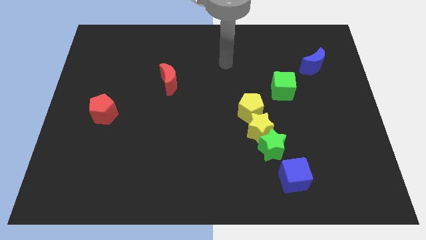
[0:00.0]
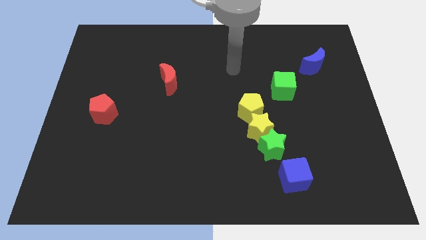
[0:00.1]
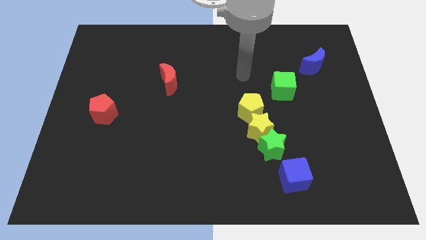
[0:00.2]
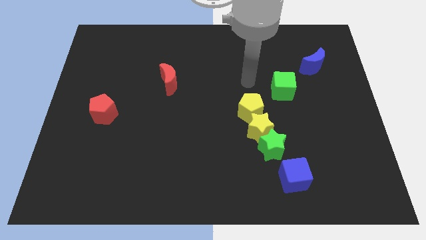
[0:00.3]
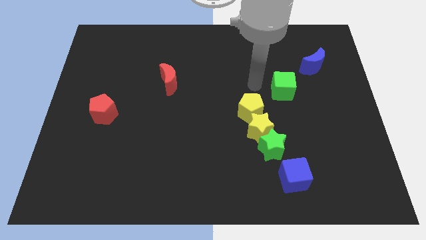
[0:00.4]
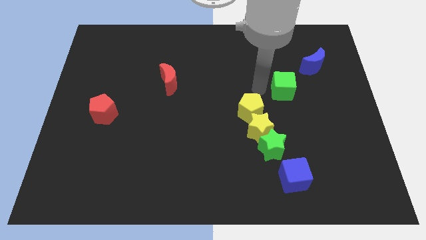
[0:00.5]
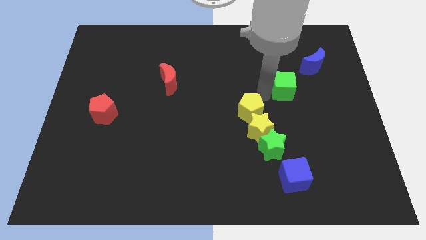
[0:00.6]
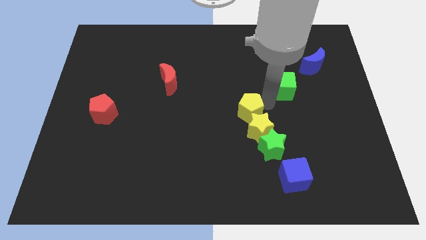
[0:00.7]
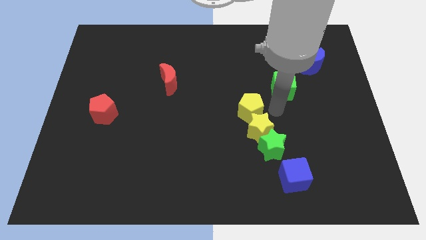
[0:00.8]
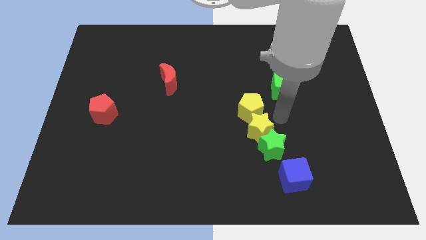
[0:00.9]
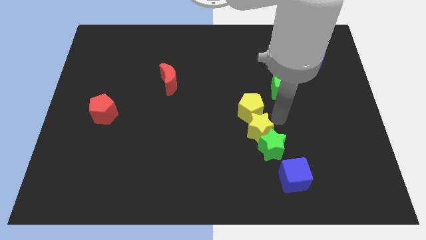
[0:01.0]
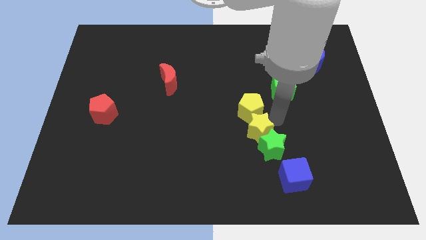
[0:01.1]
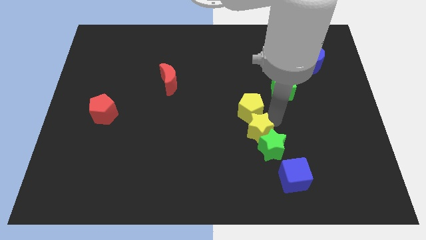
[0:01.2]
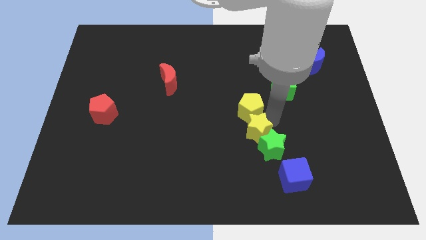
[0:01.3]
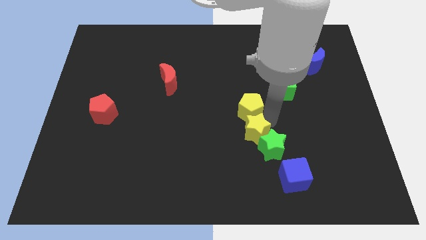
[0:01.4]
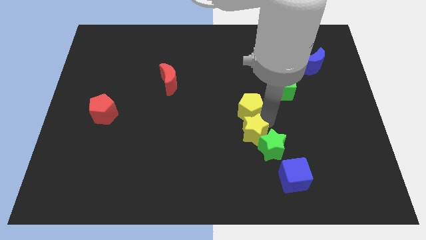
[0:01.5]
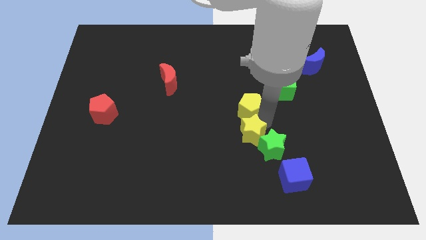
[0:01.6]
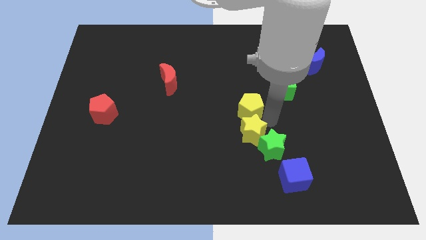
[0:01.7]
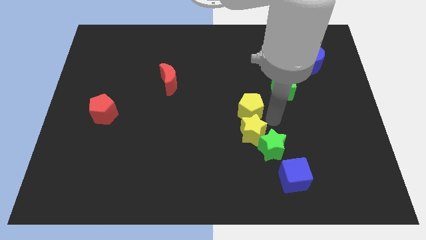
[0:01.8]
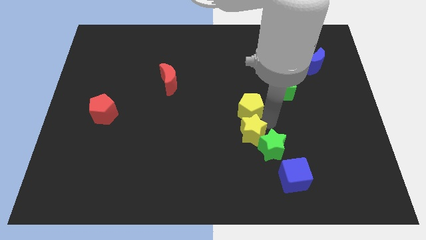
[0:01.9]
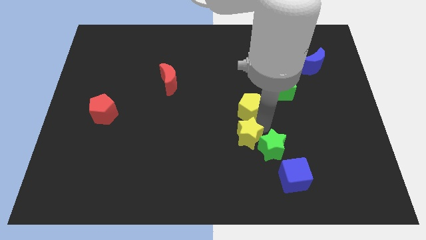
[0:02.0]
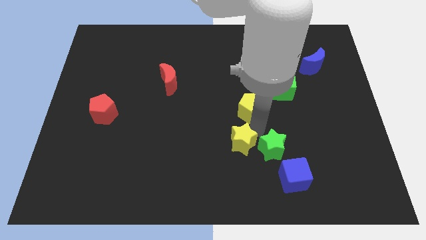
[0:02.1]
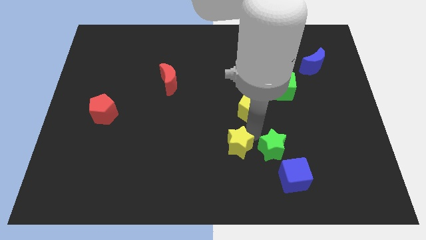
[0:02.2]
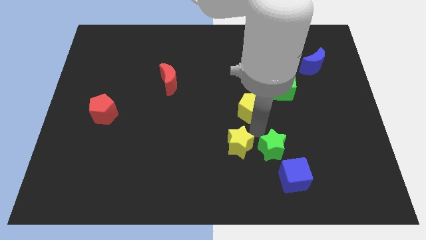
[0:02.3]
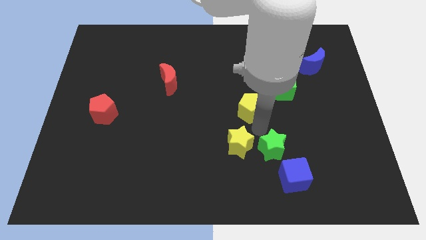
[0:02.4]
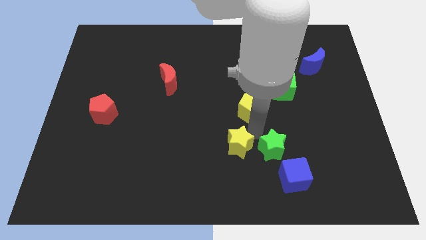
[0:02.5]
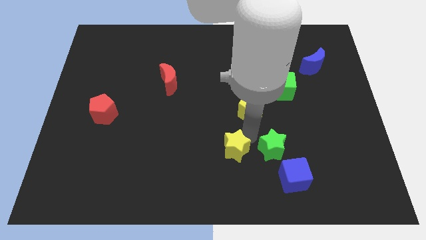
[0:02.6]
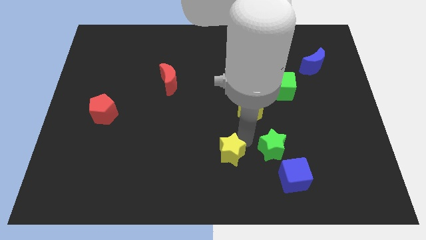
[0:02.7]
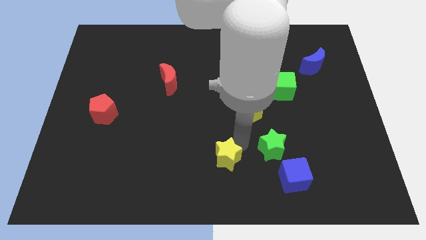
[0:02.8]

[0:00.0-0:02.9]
pull the yellow star apart from the green star and yellow pentagon

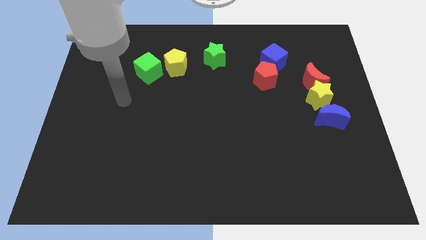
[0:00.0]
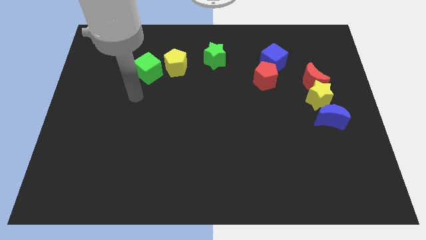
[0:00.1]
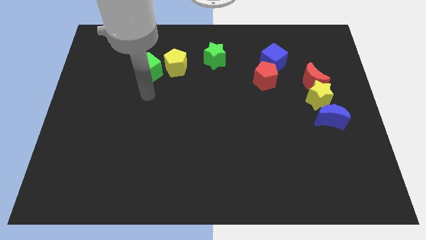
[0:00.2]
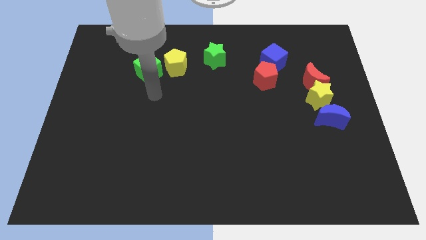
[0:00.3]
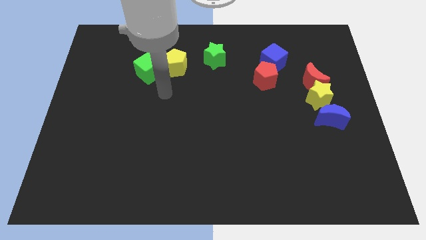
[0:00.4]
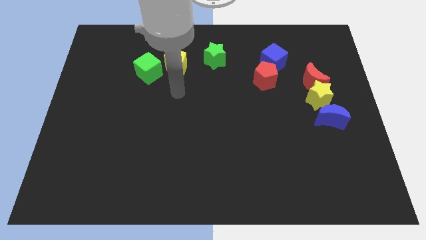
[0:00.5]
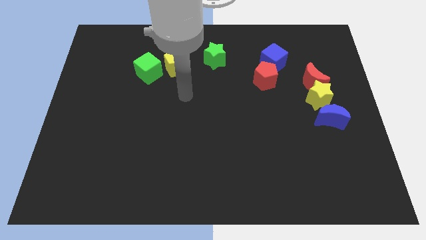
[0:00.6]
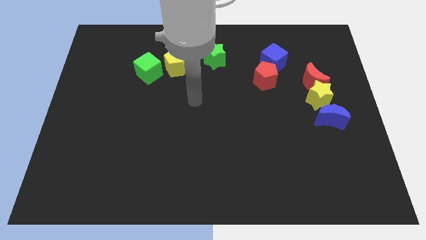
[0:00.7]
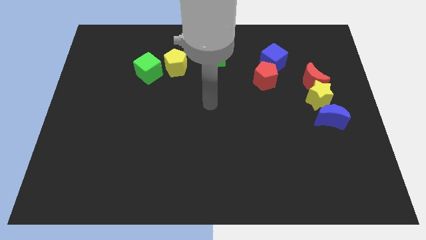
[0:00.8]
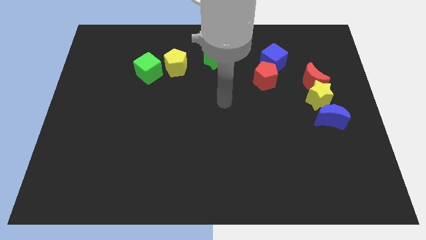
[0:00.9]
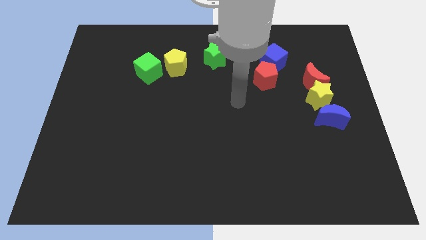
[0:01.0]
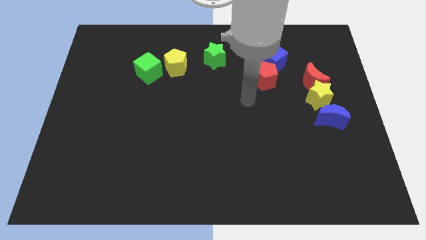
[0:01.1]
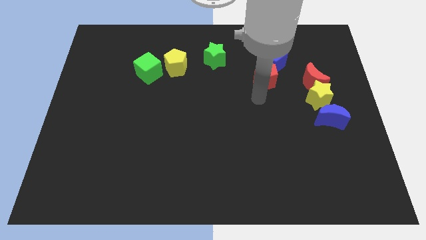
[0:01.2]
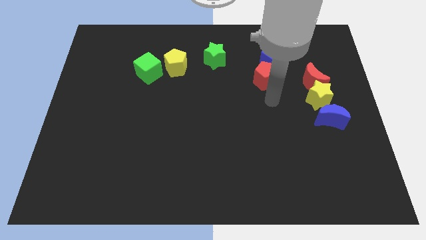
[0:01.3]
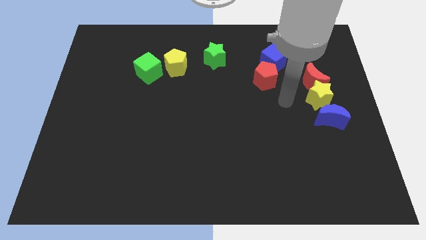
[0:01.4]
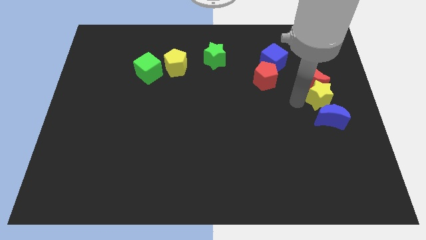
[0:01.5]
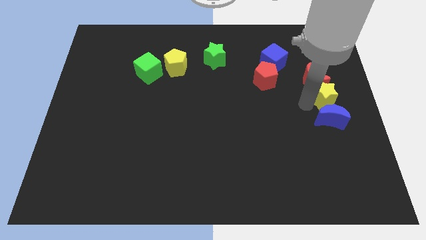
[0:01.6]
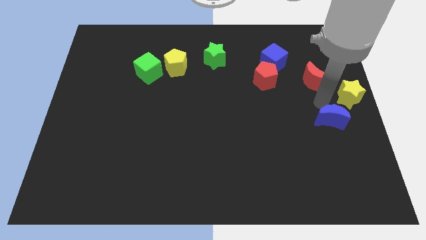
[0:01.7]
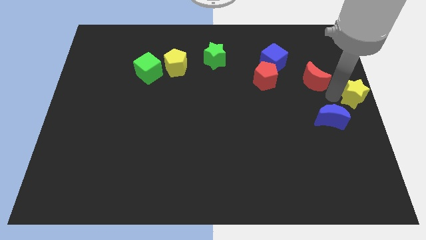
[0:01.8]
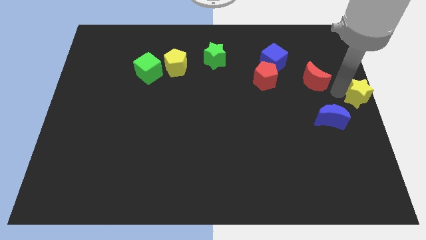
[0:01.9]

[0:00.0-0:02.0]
pull the red moon apart from the yellow star

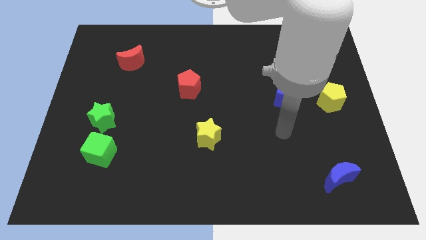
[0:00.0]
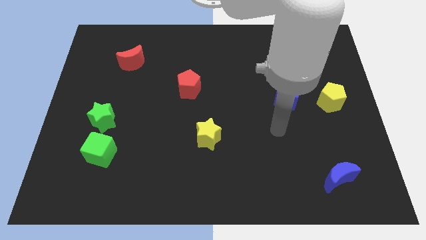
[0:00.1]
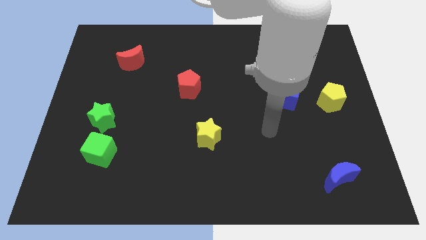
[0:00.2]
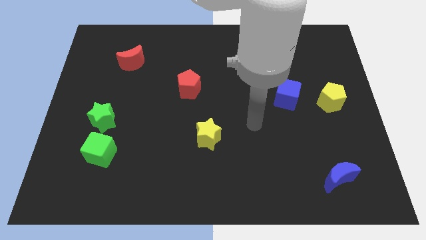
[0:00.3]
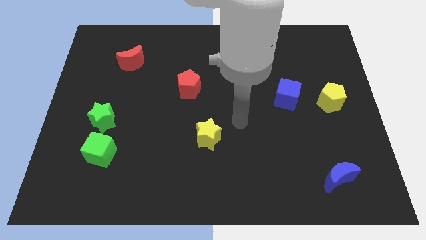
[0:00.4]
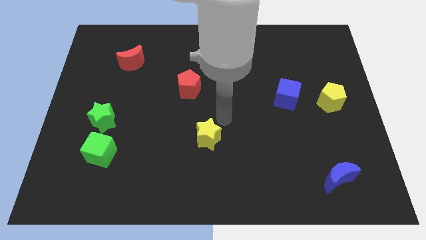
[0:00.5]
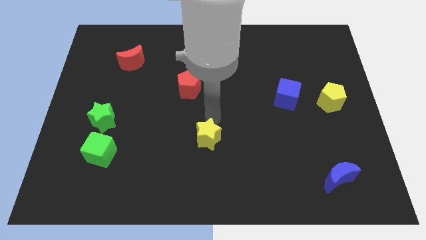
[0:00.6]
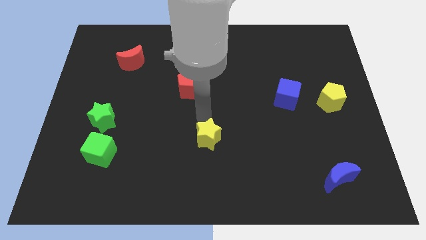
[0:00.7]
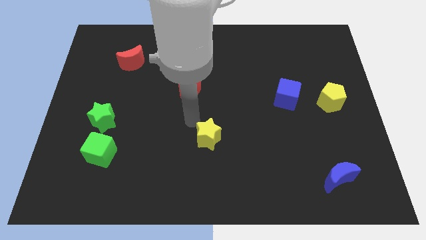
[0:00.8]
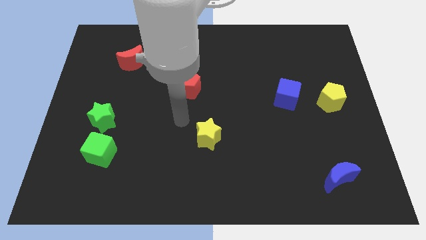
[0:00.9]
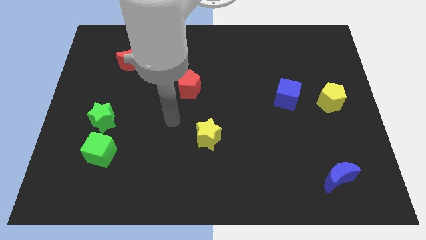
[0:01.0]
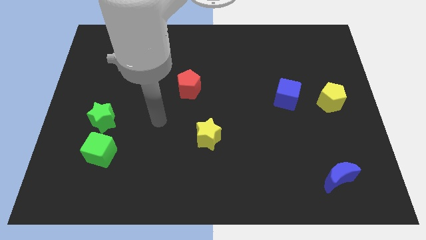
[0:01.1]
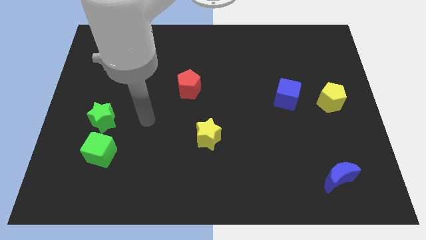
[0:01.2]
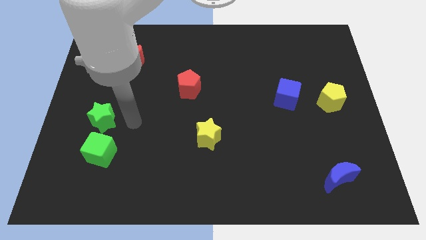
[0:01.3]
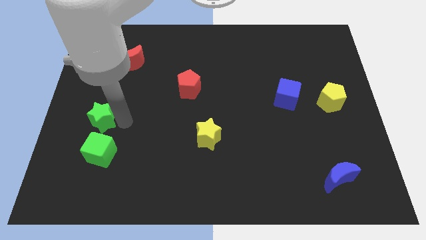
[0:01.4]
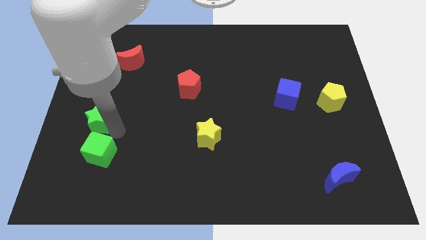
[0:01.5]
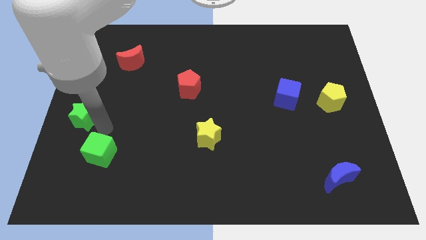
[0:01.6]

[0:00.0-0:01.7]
separate the green cube from the green star

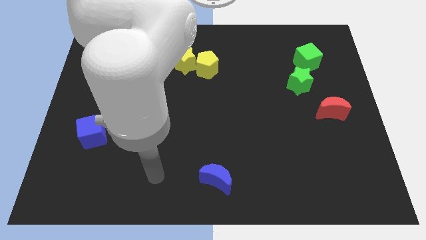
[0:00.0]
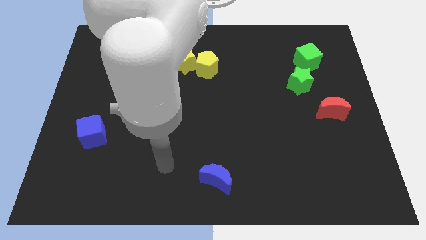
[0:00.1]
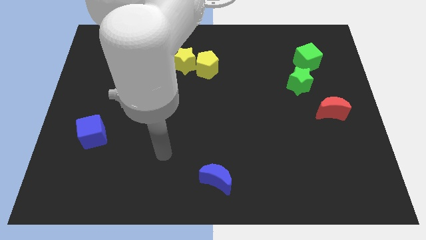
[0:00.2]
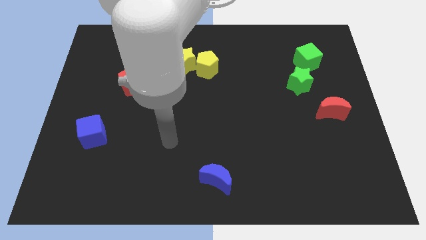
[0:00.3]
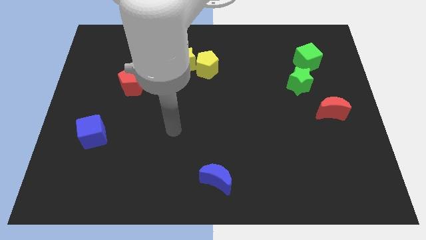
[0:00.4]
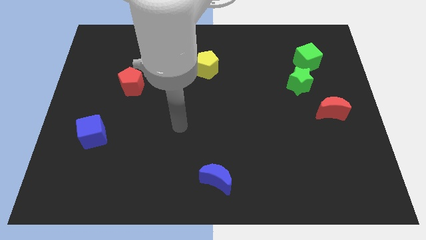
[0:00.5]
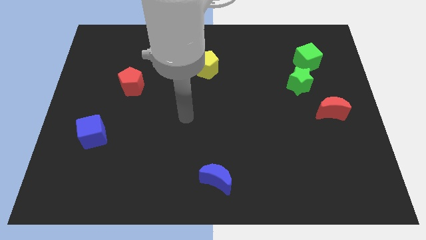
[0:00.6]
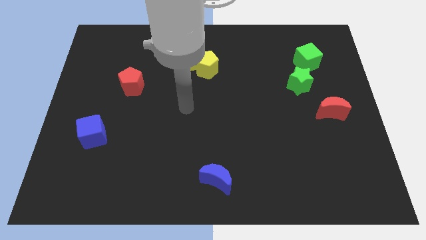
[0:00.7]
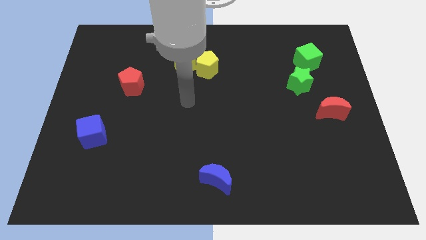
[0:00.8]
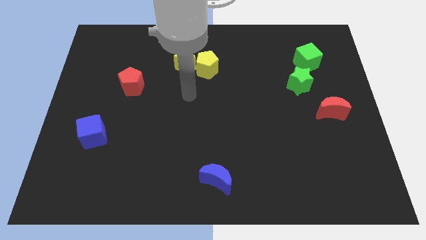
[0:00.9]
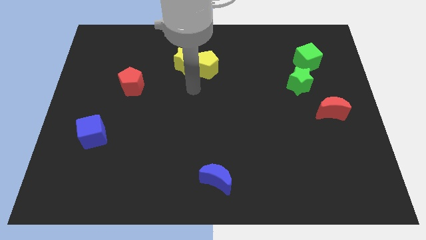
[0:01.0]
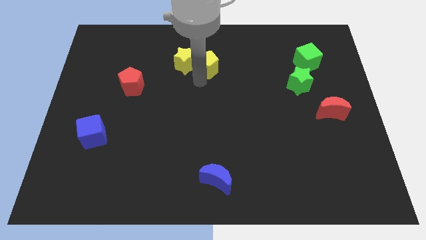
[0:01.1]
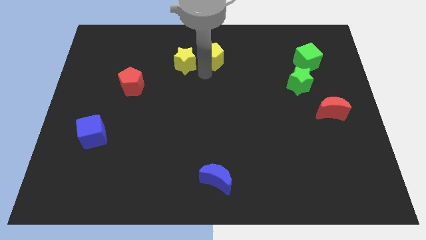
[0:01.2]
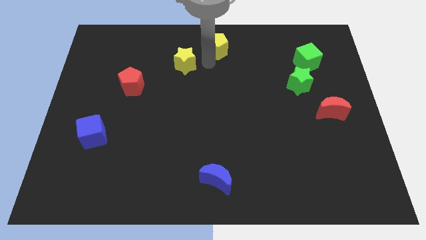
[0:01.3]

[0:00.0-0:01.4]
pull the yellow star apart from the yellow pentagon

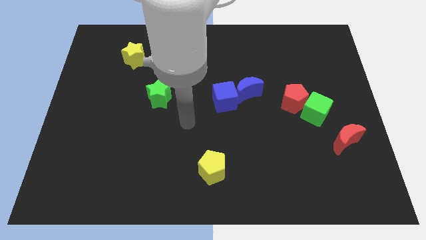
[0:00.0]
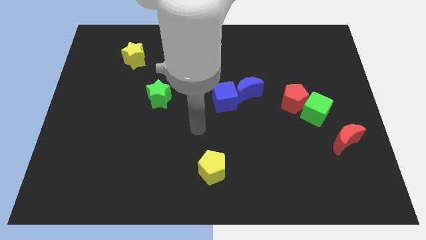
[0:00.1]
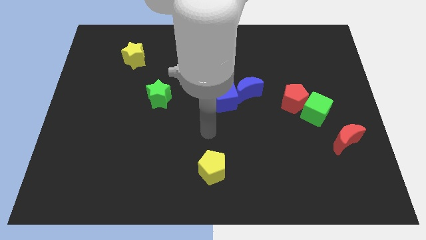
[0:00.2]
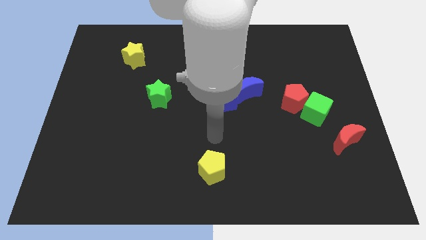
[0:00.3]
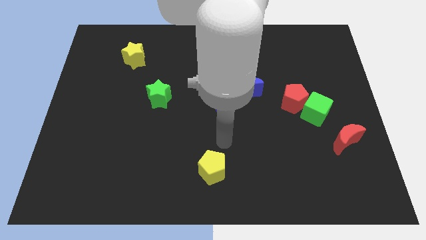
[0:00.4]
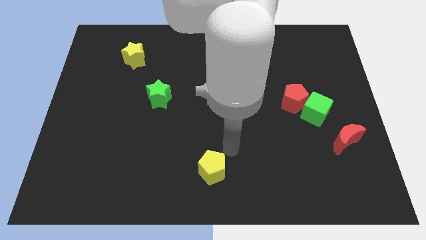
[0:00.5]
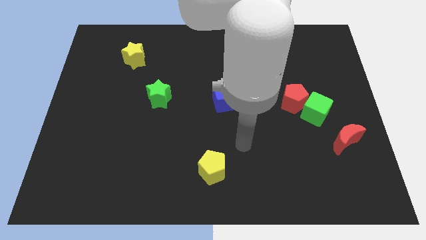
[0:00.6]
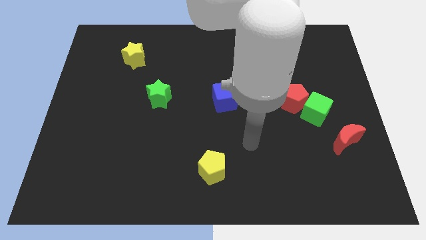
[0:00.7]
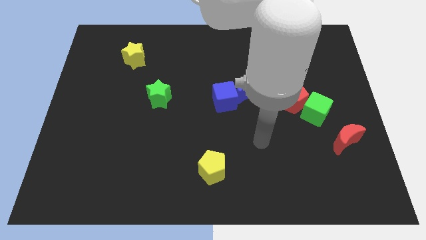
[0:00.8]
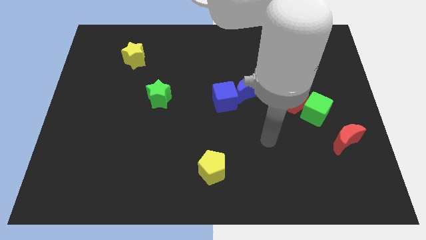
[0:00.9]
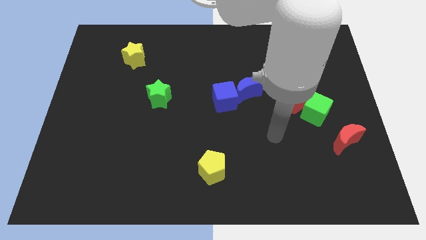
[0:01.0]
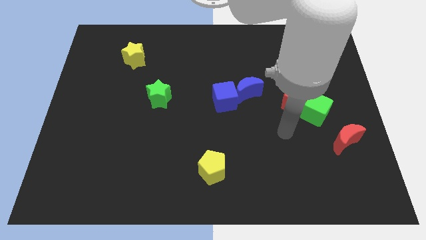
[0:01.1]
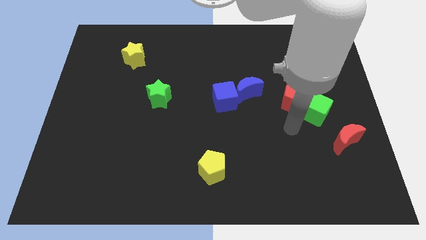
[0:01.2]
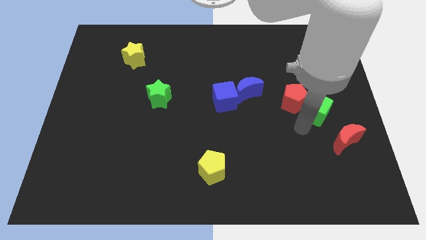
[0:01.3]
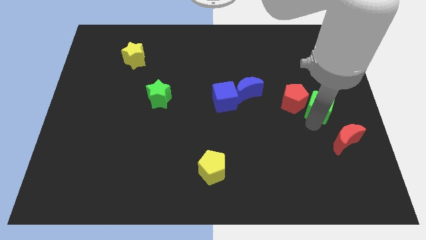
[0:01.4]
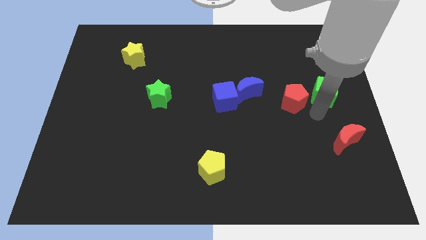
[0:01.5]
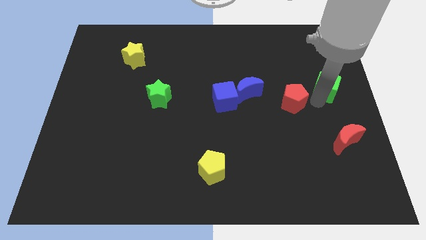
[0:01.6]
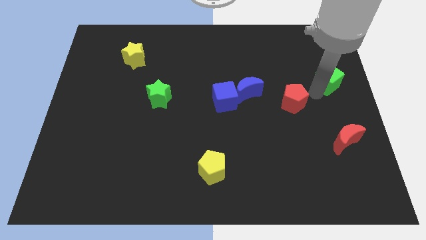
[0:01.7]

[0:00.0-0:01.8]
move the red pentagon away from the green cube
